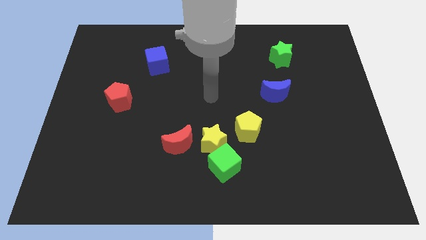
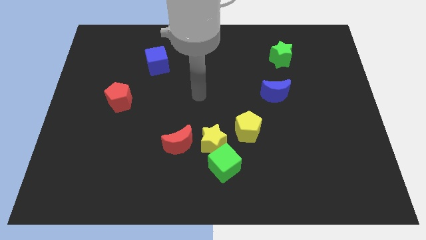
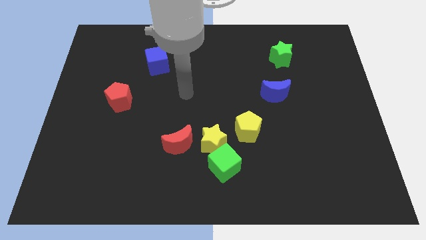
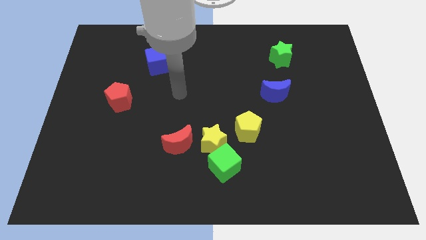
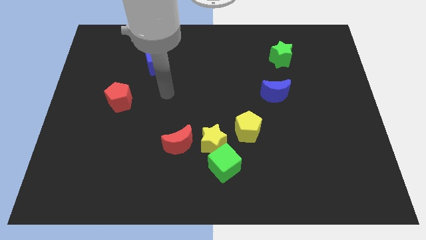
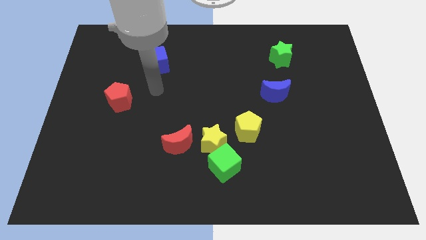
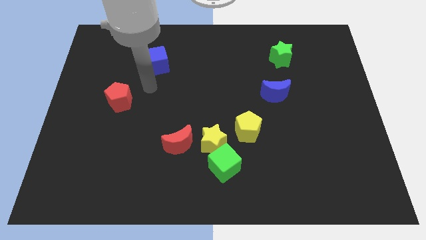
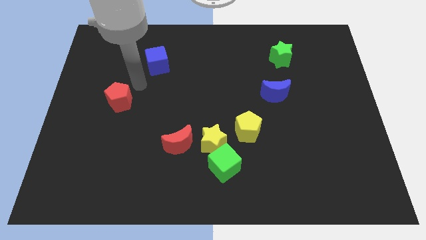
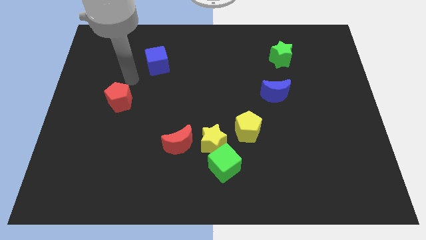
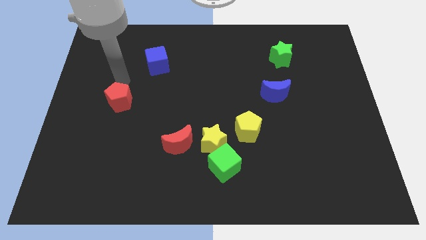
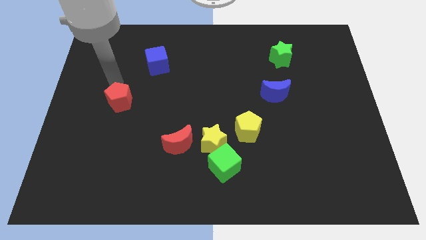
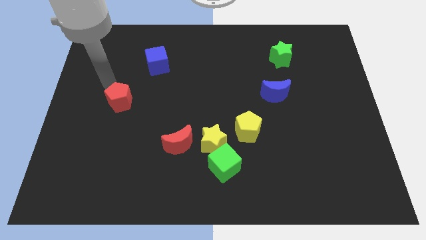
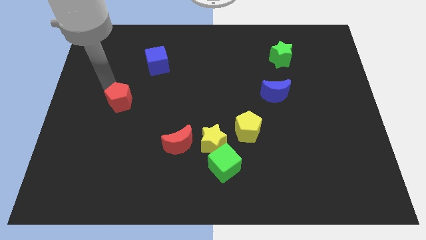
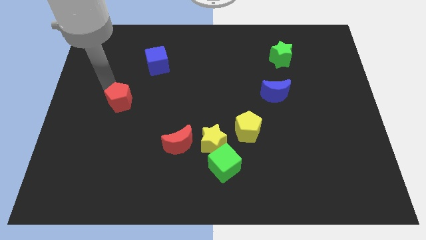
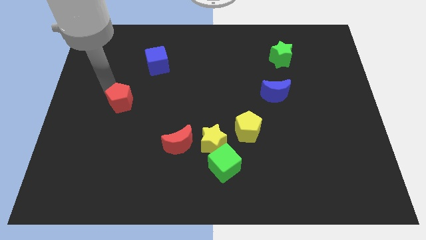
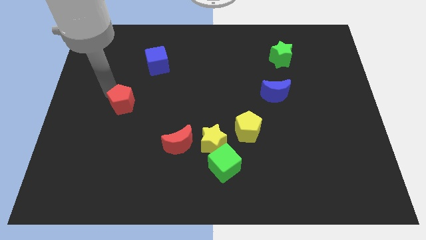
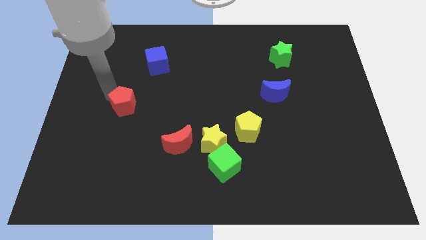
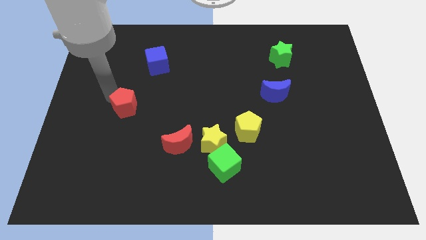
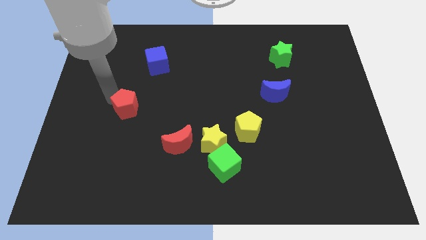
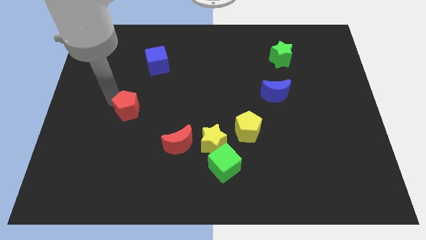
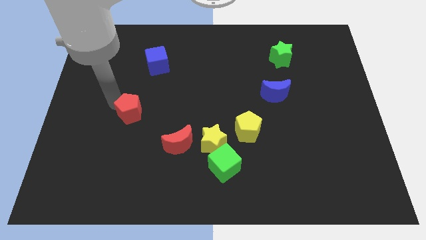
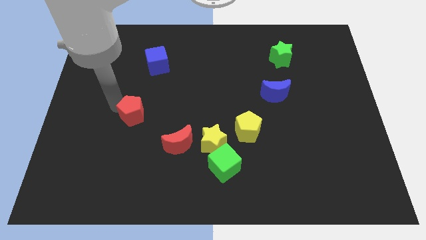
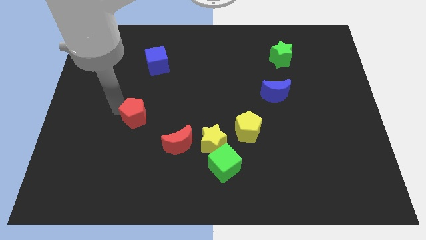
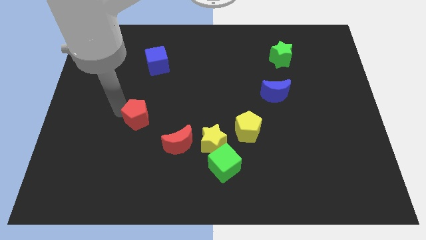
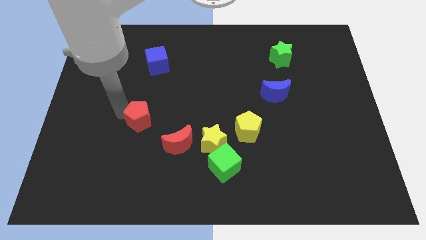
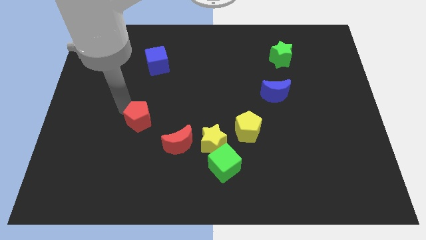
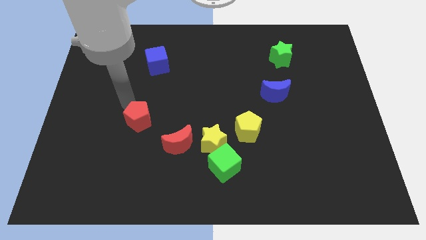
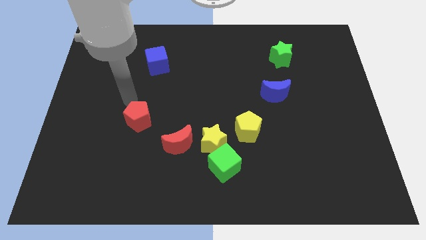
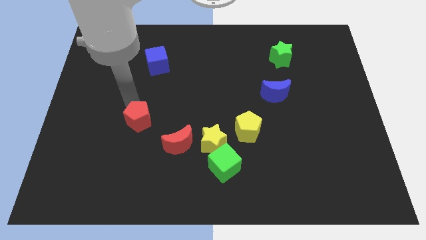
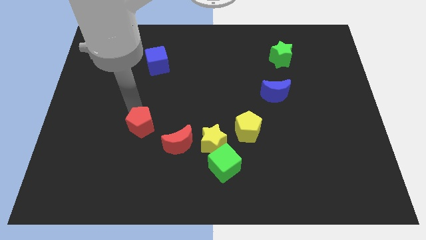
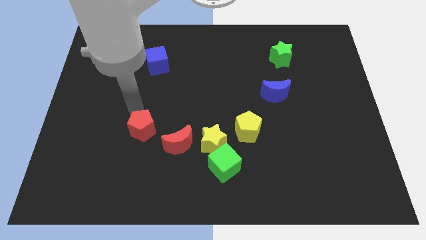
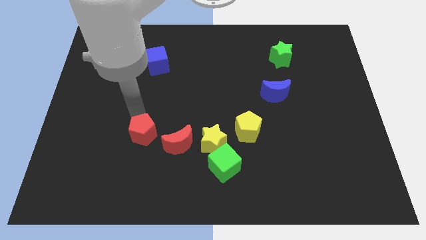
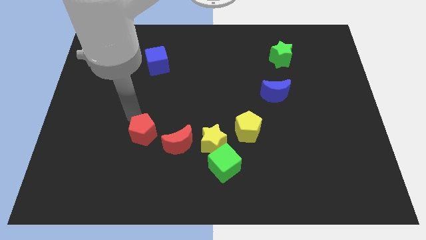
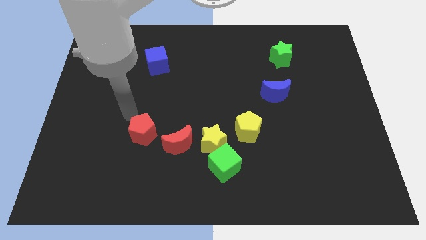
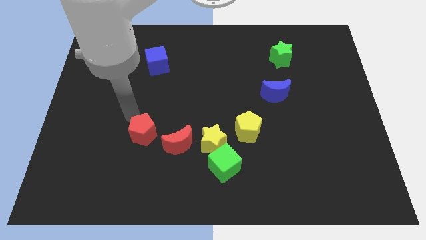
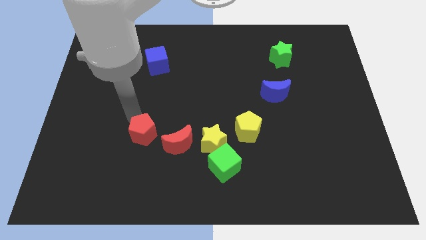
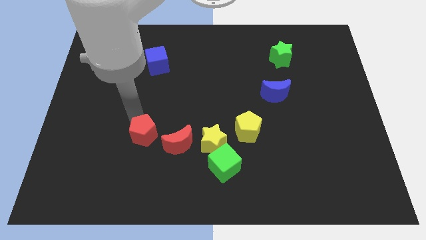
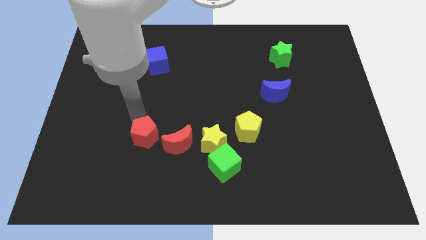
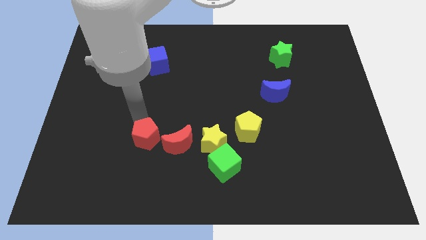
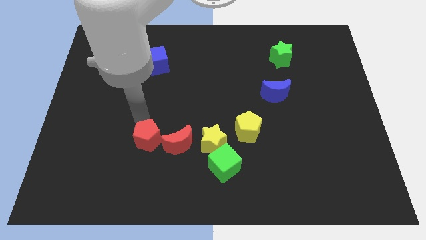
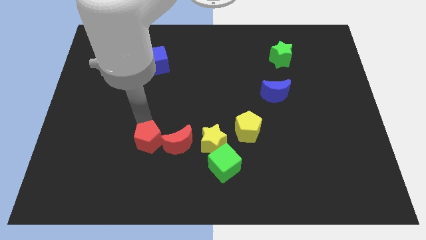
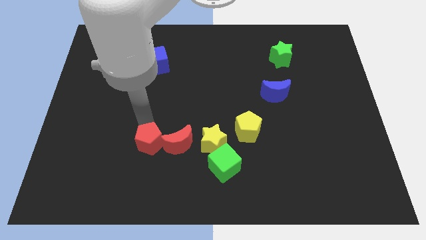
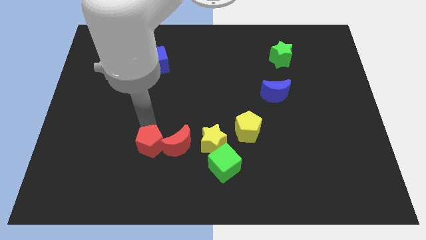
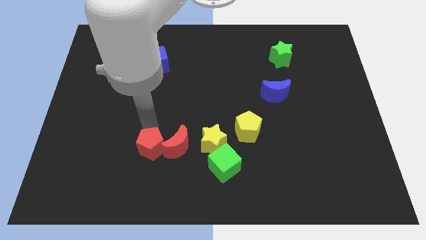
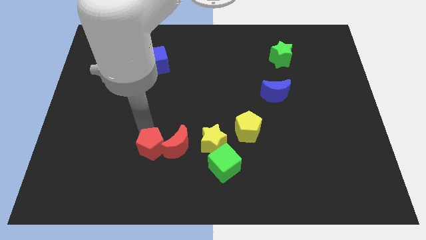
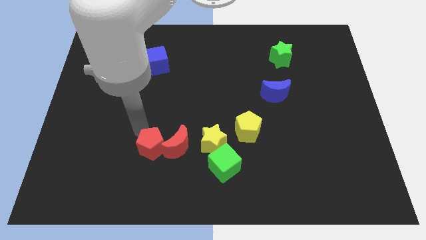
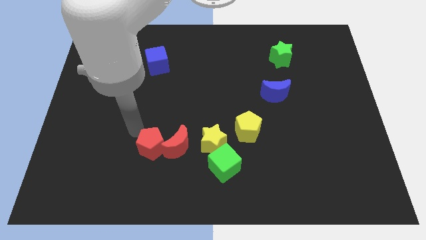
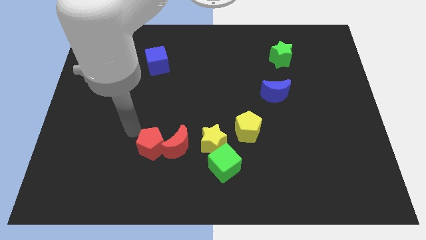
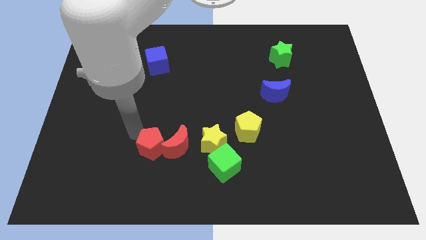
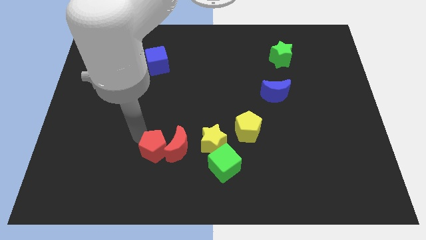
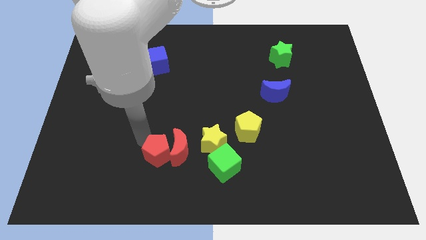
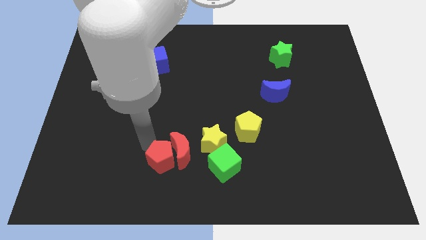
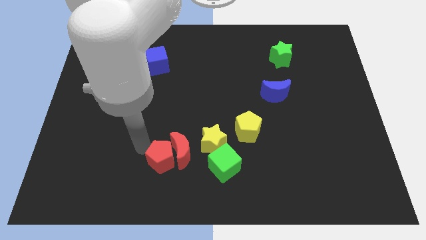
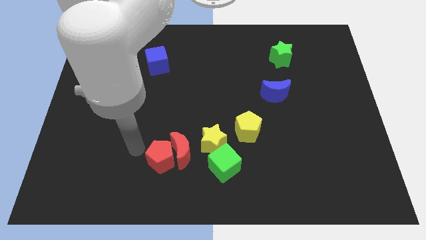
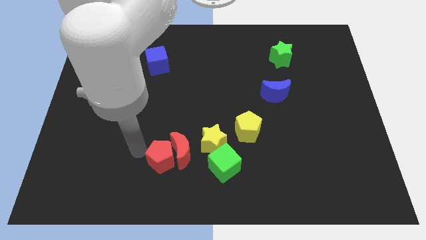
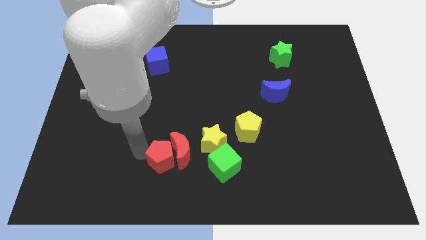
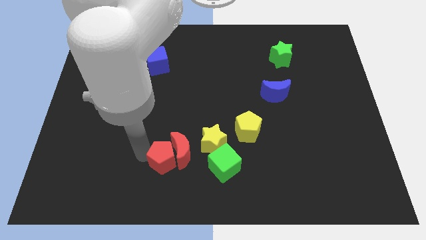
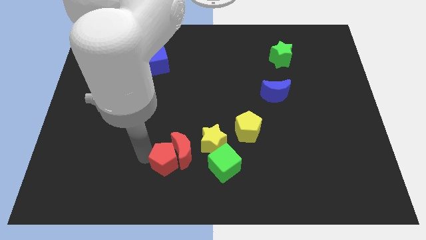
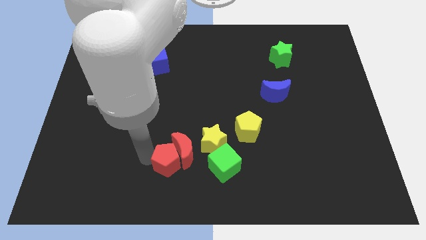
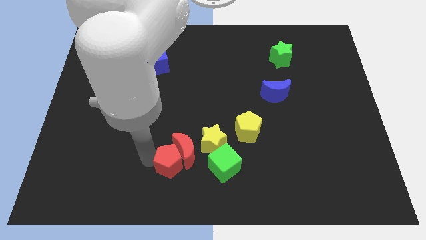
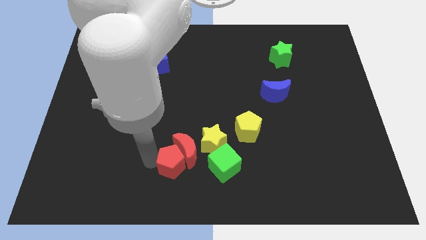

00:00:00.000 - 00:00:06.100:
put the red pentagon to the bottom
